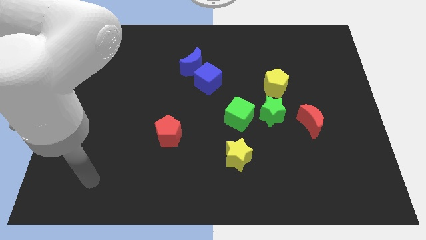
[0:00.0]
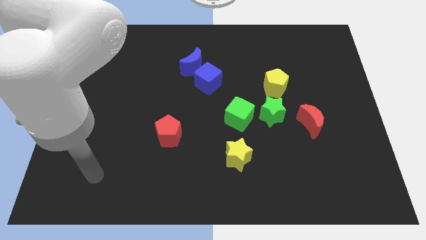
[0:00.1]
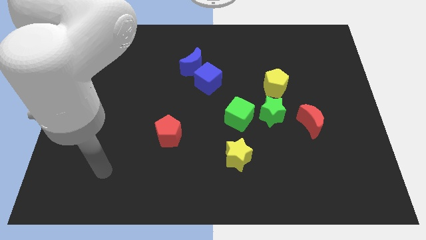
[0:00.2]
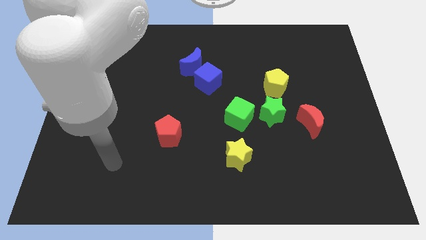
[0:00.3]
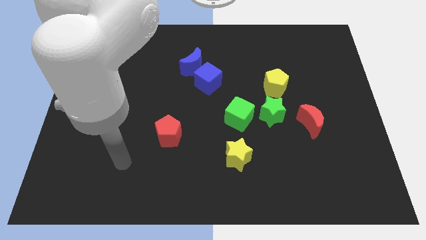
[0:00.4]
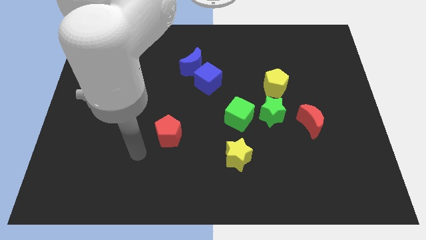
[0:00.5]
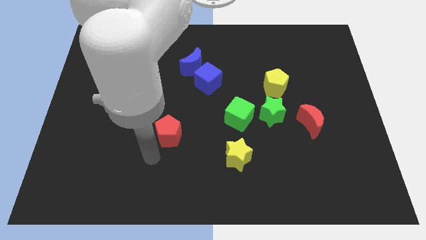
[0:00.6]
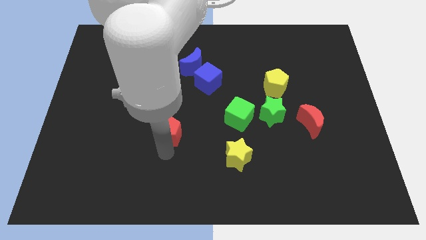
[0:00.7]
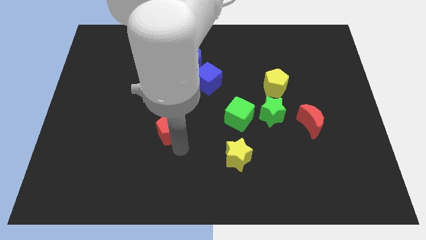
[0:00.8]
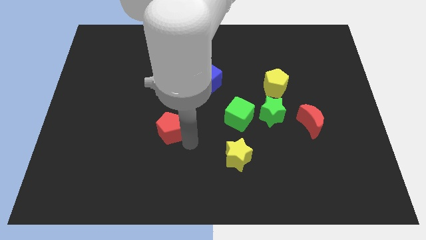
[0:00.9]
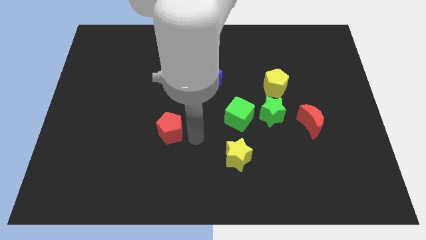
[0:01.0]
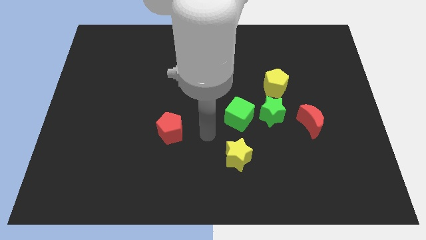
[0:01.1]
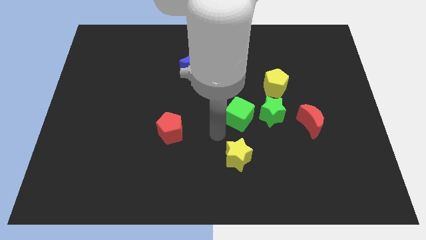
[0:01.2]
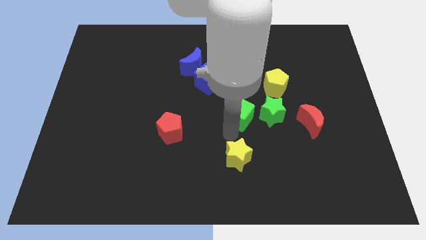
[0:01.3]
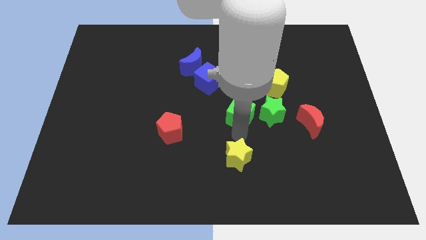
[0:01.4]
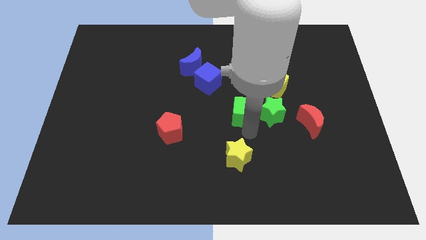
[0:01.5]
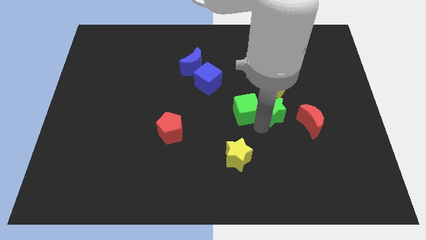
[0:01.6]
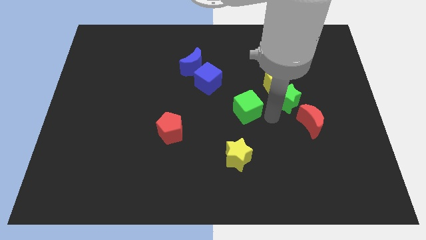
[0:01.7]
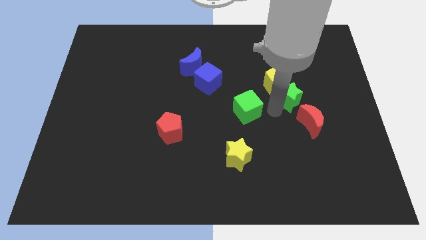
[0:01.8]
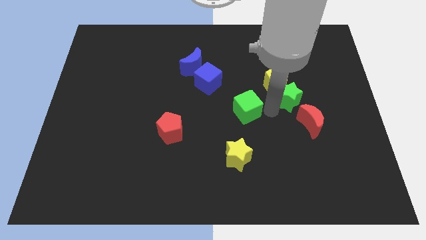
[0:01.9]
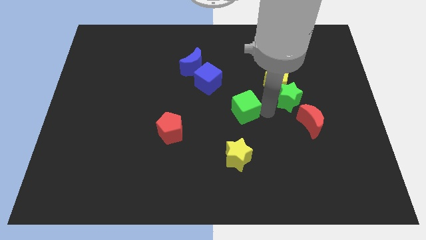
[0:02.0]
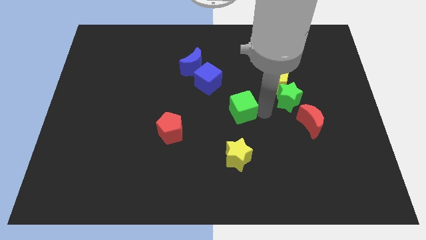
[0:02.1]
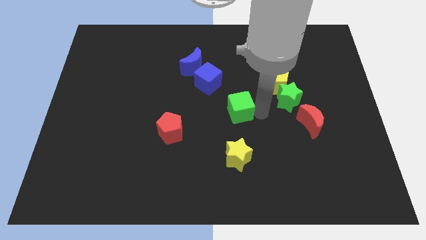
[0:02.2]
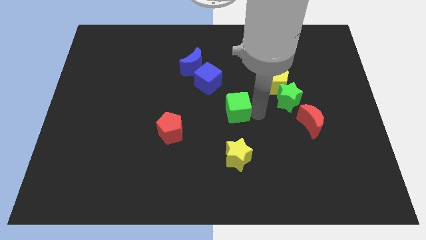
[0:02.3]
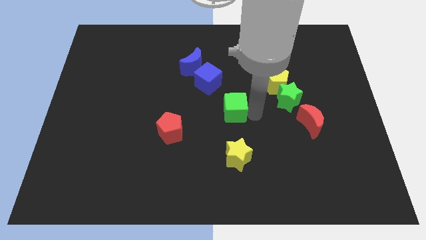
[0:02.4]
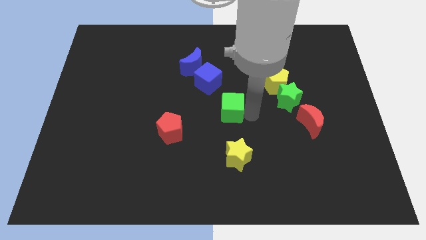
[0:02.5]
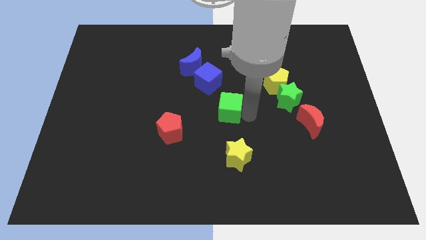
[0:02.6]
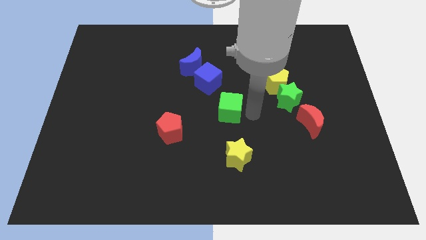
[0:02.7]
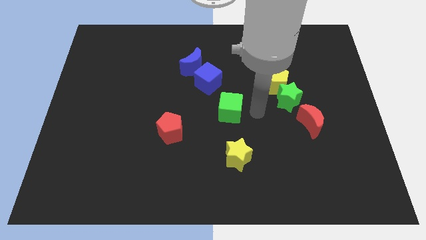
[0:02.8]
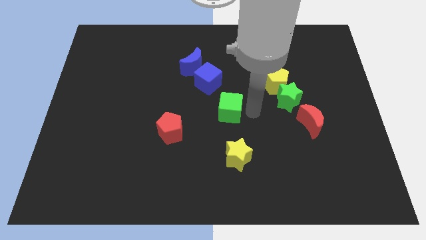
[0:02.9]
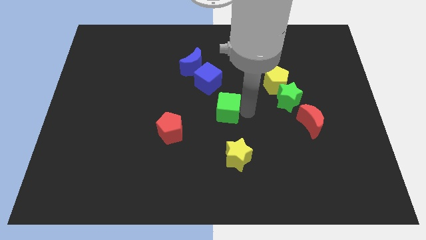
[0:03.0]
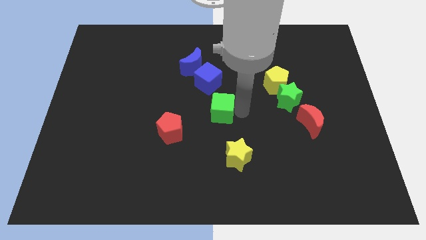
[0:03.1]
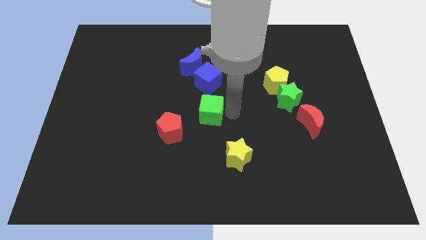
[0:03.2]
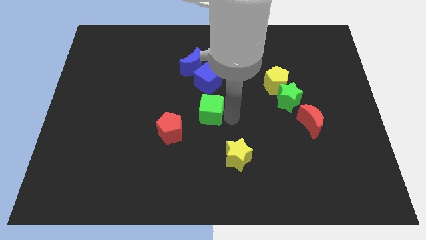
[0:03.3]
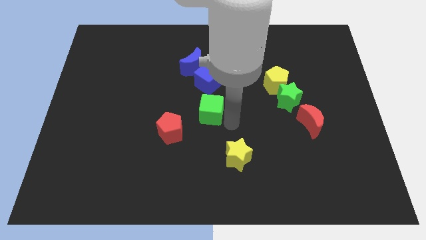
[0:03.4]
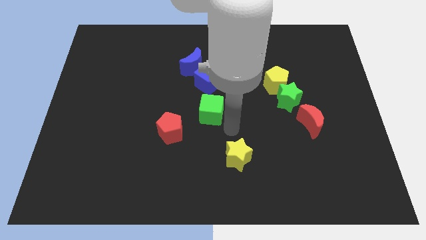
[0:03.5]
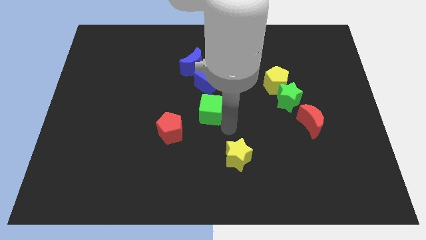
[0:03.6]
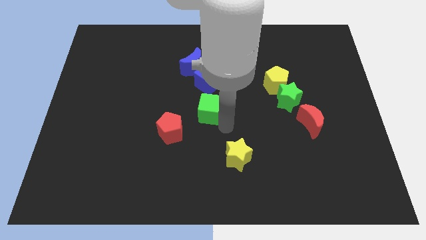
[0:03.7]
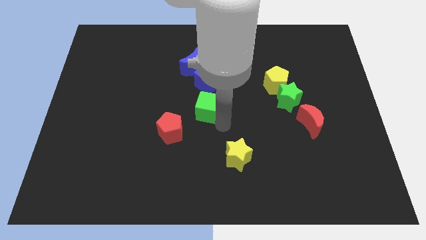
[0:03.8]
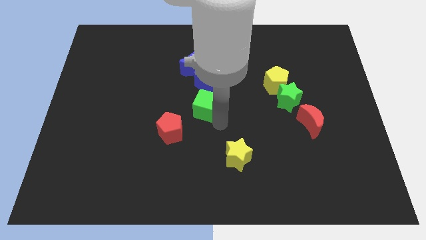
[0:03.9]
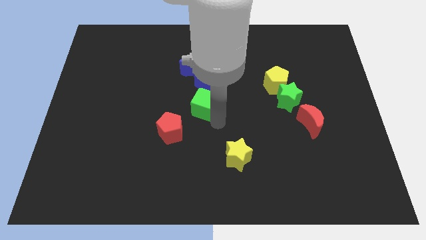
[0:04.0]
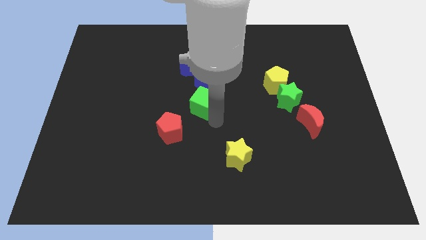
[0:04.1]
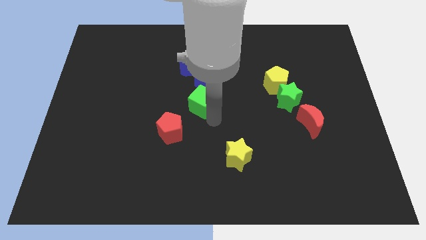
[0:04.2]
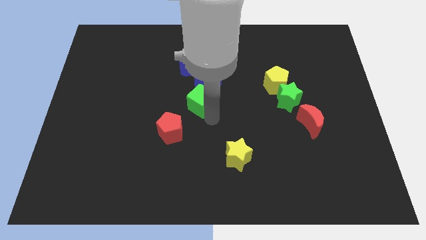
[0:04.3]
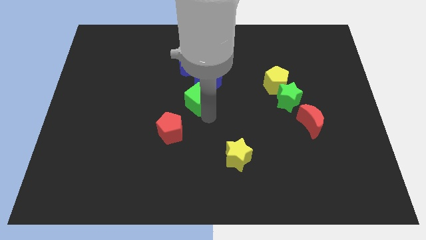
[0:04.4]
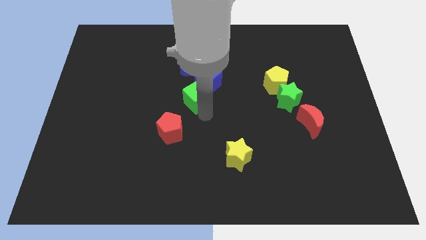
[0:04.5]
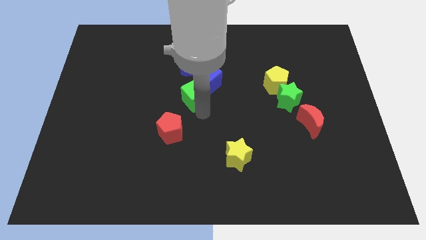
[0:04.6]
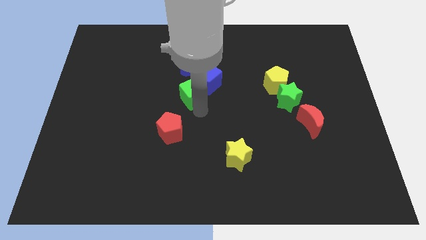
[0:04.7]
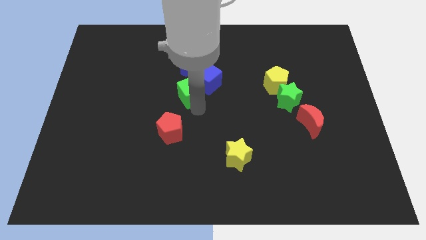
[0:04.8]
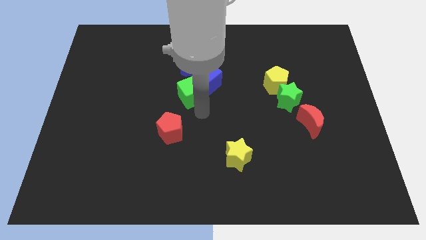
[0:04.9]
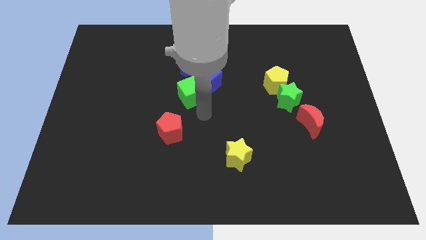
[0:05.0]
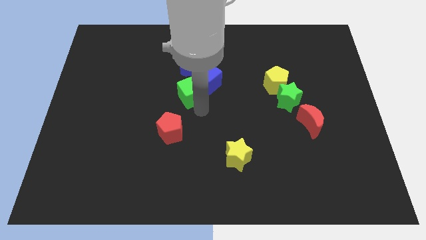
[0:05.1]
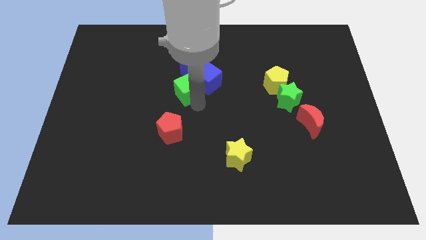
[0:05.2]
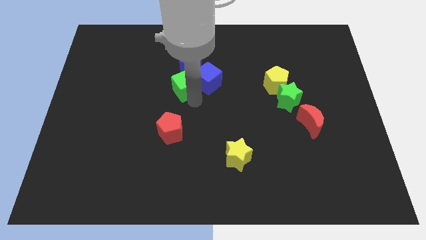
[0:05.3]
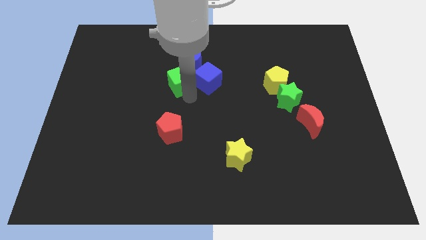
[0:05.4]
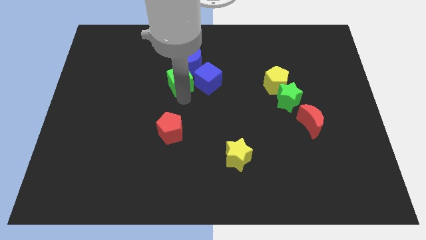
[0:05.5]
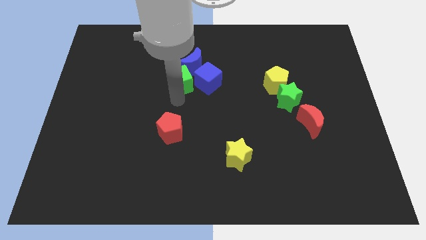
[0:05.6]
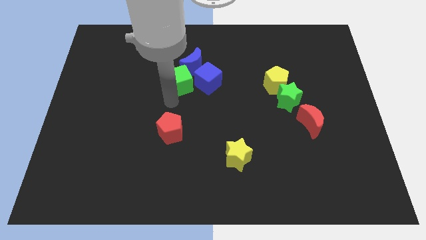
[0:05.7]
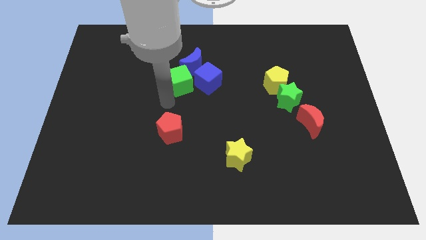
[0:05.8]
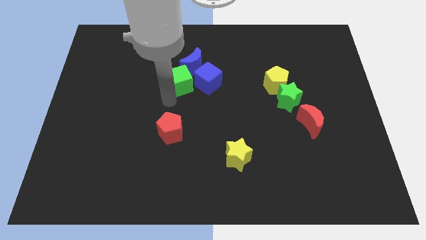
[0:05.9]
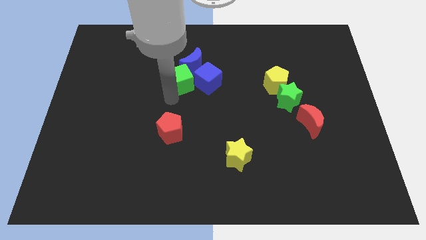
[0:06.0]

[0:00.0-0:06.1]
put the green cube towards the blue moon

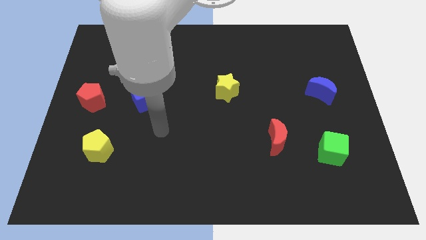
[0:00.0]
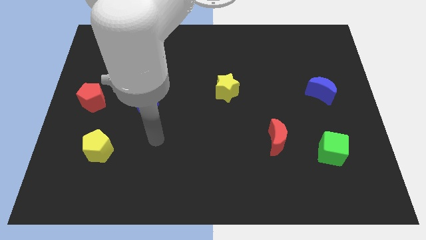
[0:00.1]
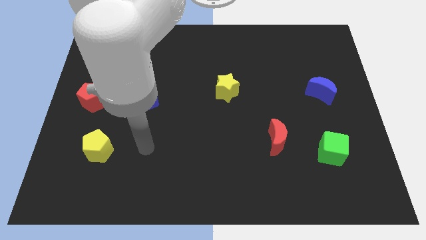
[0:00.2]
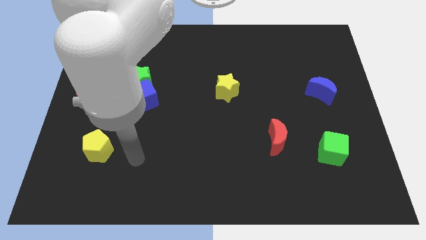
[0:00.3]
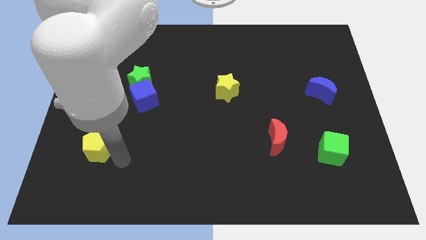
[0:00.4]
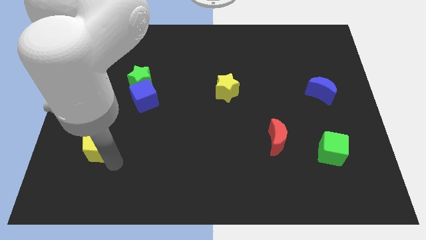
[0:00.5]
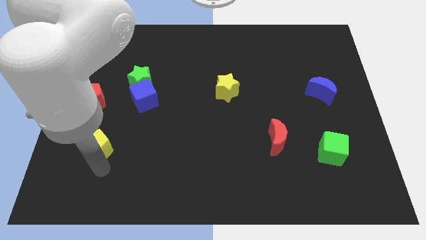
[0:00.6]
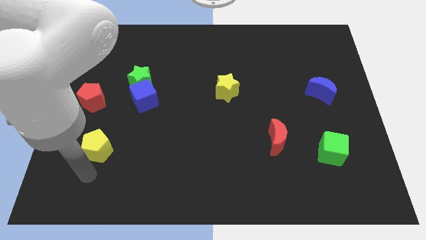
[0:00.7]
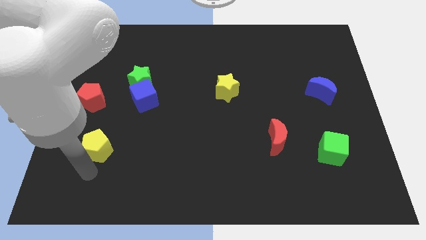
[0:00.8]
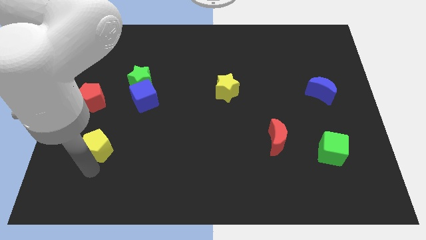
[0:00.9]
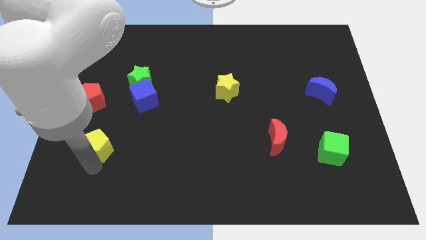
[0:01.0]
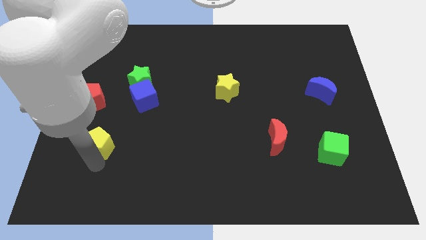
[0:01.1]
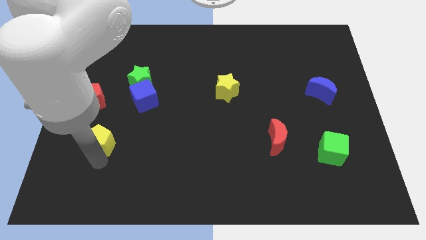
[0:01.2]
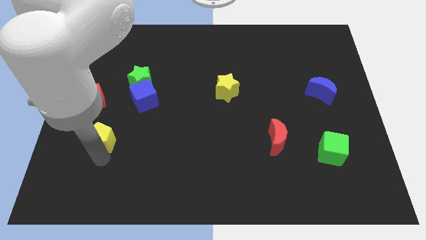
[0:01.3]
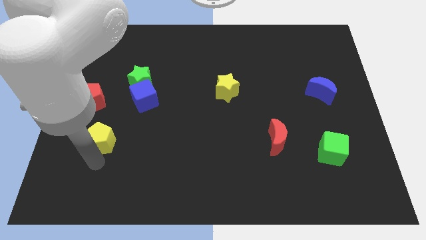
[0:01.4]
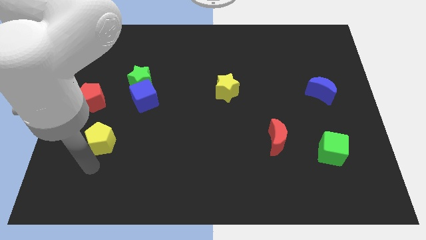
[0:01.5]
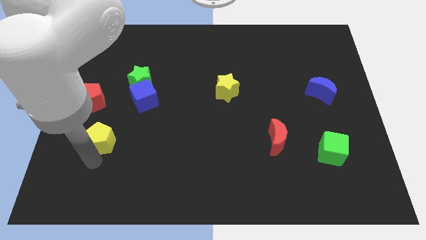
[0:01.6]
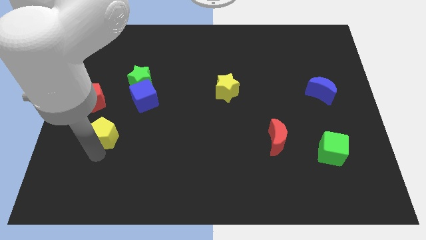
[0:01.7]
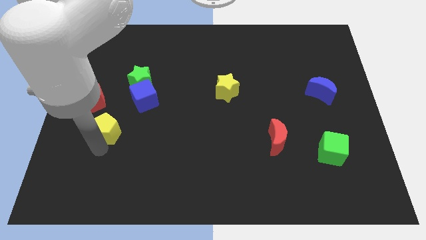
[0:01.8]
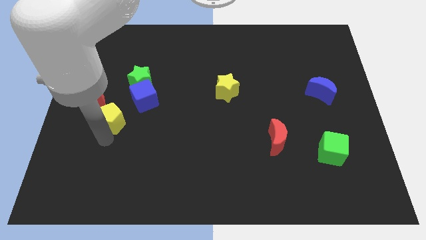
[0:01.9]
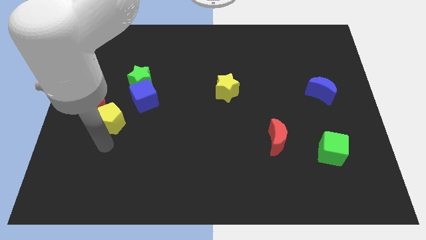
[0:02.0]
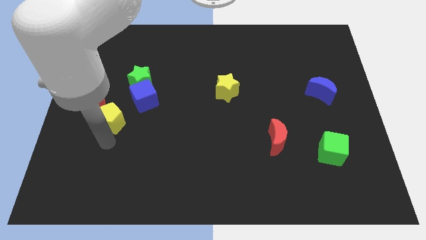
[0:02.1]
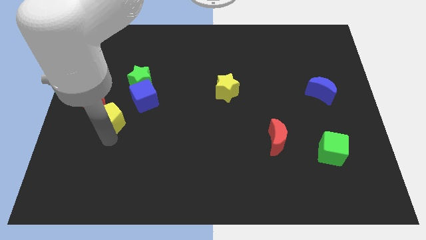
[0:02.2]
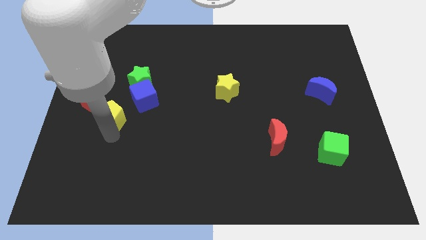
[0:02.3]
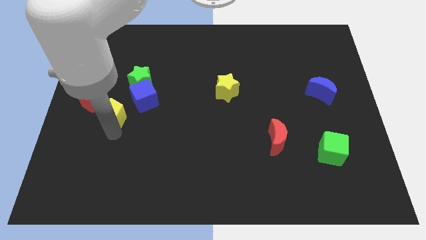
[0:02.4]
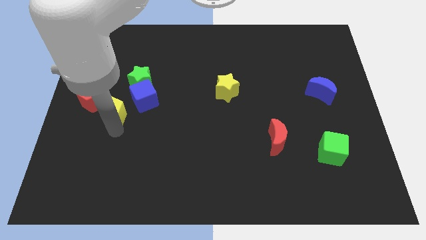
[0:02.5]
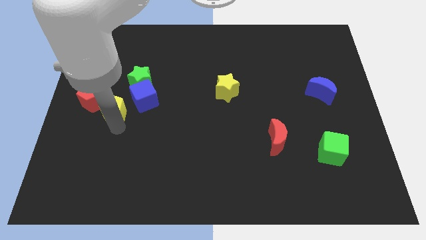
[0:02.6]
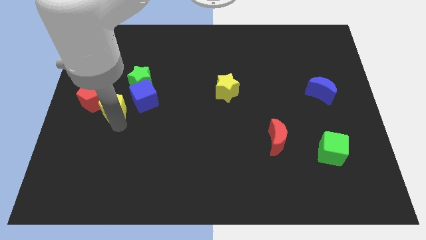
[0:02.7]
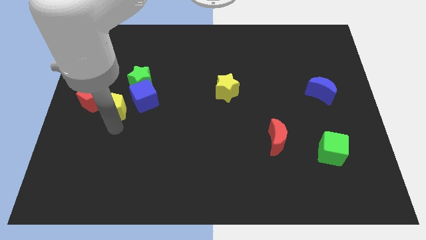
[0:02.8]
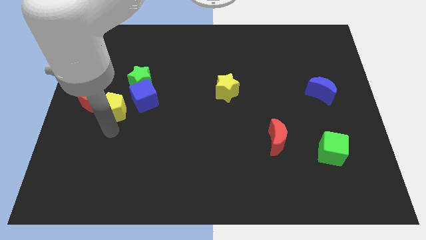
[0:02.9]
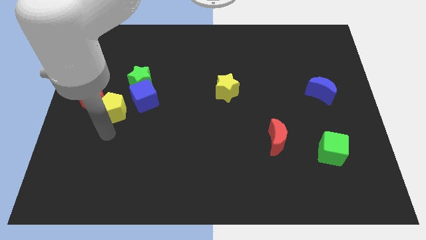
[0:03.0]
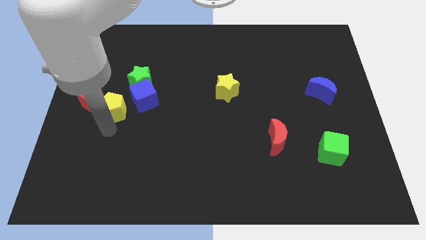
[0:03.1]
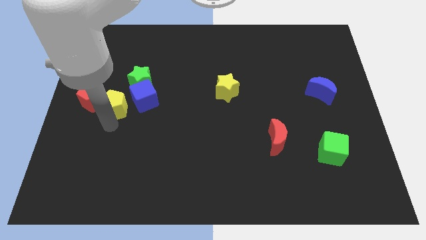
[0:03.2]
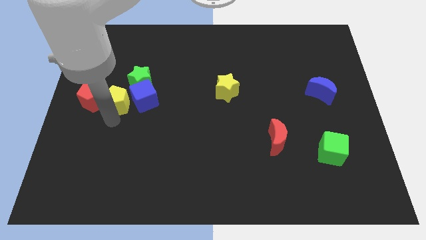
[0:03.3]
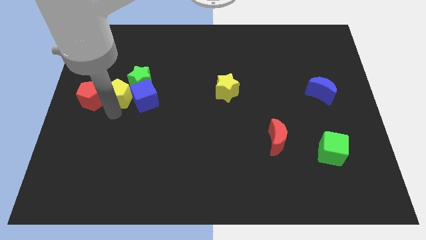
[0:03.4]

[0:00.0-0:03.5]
slide the yellow pentagon next to the green star
